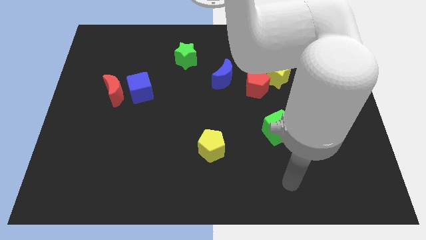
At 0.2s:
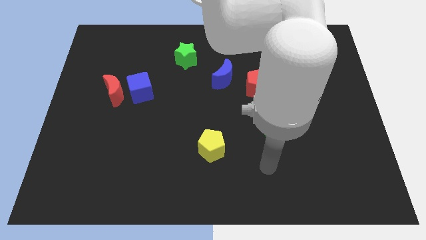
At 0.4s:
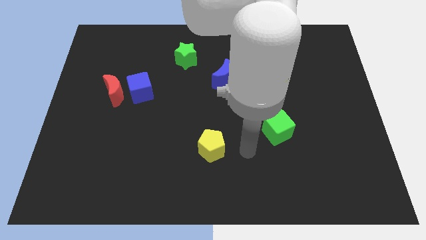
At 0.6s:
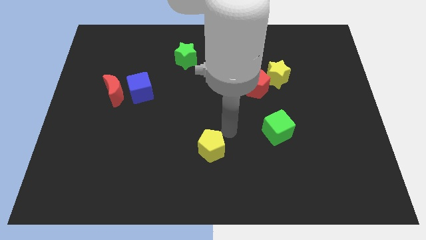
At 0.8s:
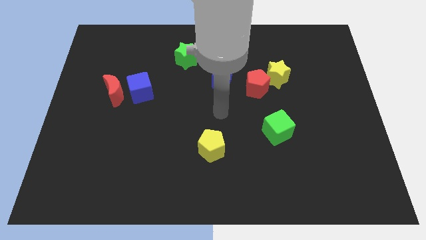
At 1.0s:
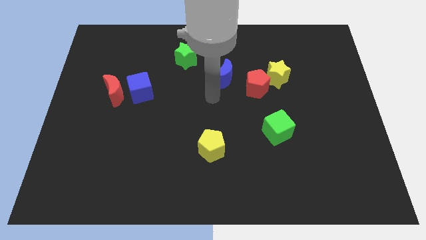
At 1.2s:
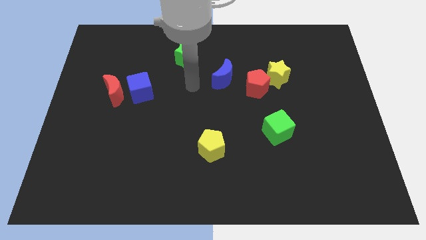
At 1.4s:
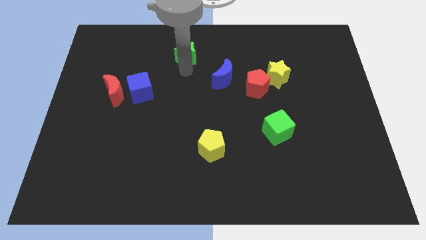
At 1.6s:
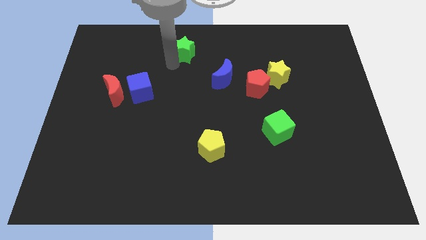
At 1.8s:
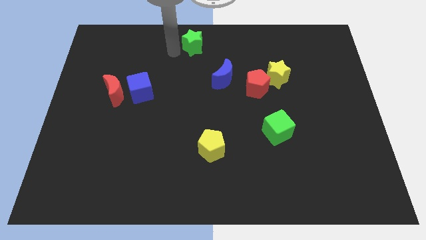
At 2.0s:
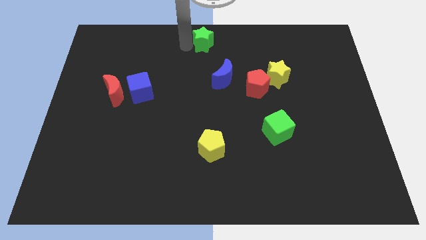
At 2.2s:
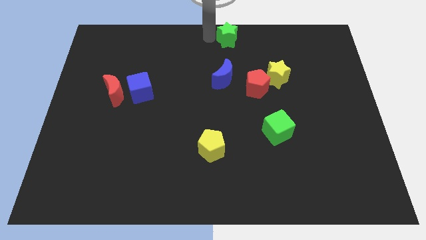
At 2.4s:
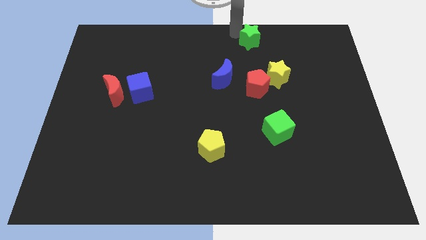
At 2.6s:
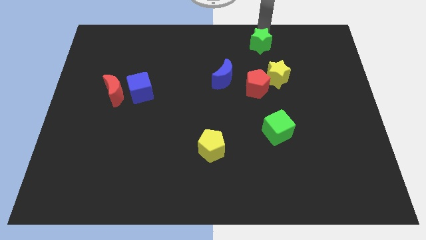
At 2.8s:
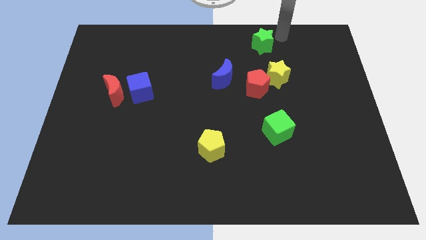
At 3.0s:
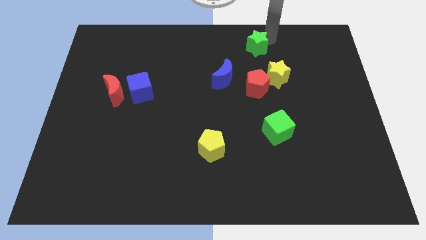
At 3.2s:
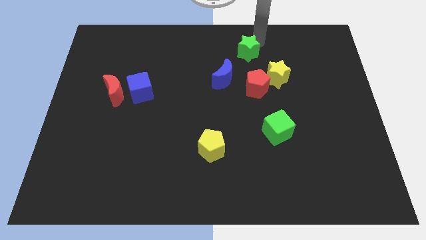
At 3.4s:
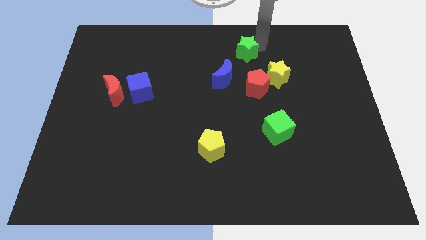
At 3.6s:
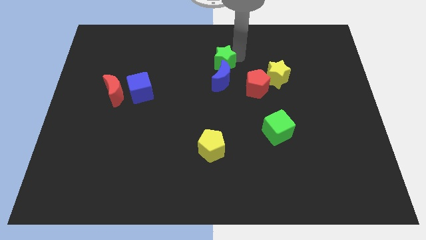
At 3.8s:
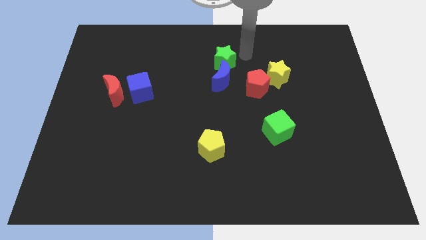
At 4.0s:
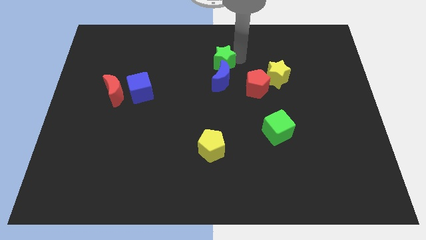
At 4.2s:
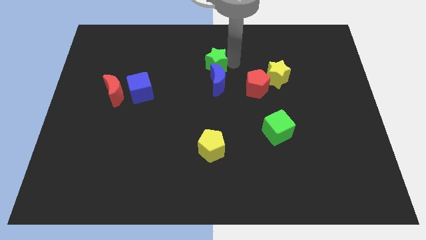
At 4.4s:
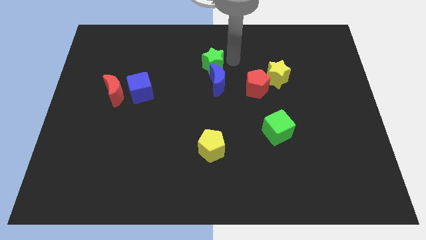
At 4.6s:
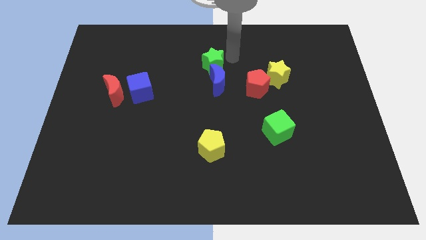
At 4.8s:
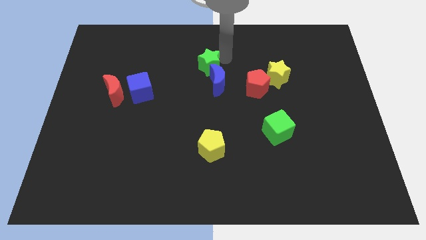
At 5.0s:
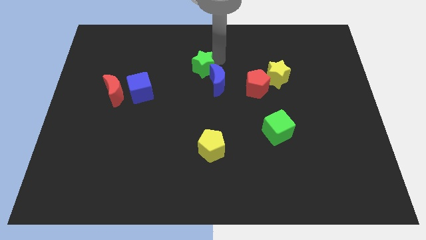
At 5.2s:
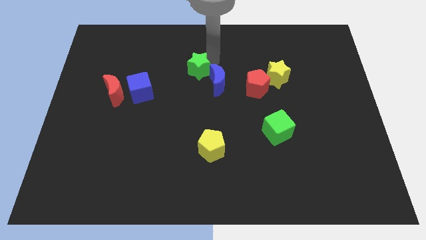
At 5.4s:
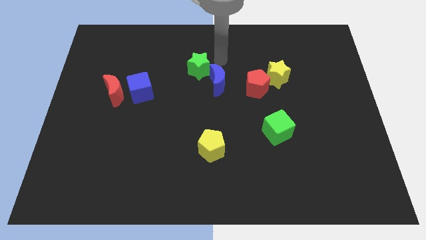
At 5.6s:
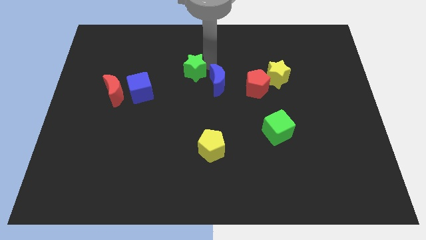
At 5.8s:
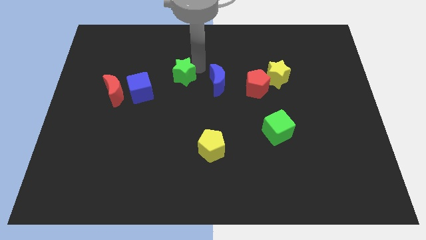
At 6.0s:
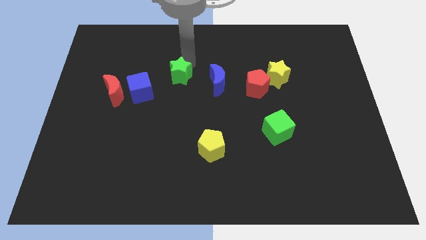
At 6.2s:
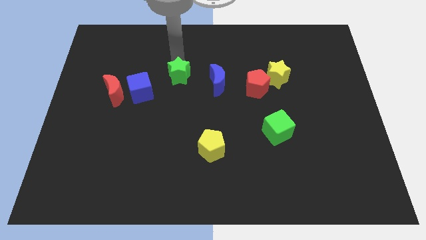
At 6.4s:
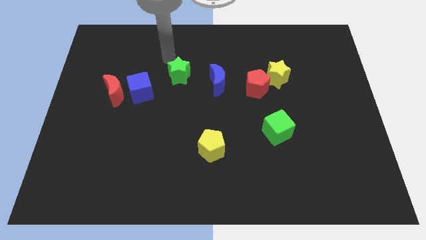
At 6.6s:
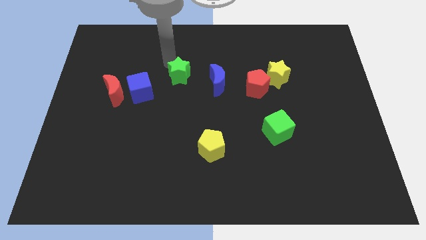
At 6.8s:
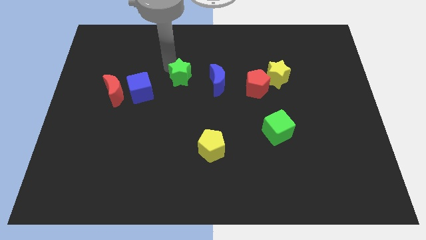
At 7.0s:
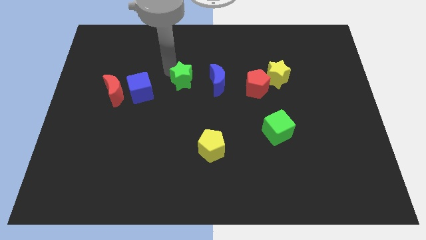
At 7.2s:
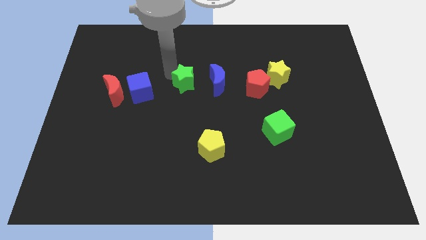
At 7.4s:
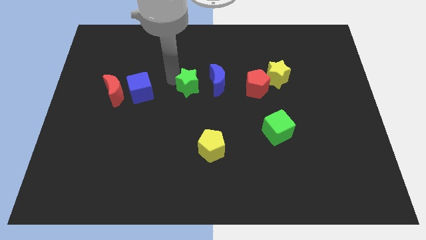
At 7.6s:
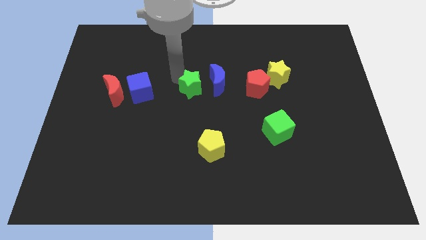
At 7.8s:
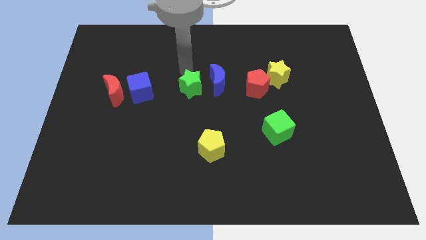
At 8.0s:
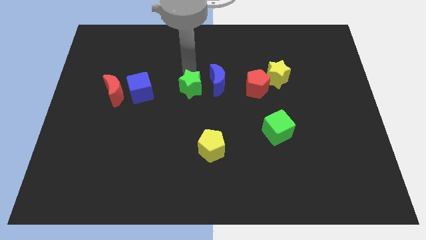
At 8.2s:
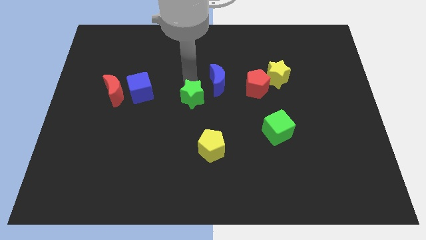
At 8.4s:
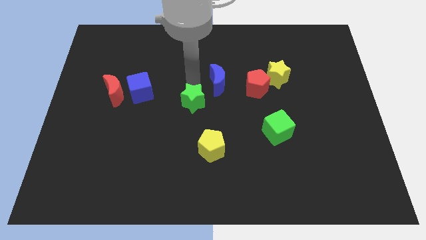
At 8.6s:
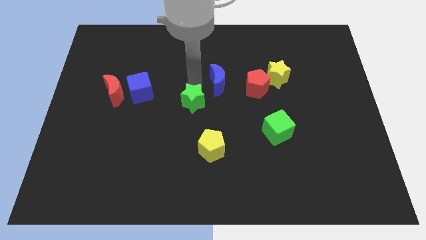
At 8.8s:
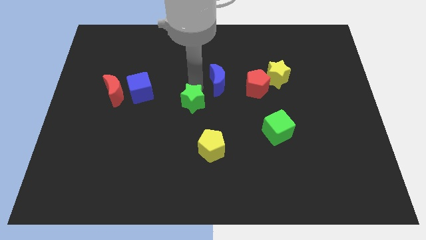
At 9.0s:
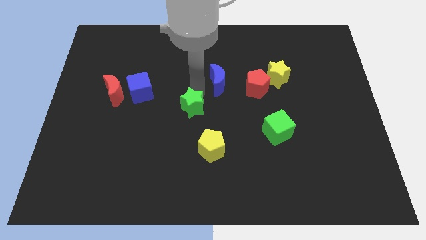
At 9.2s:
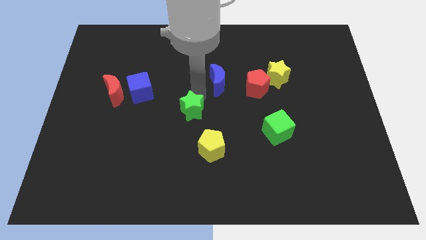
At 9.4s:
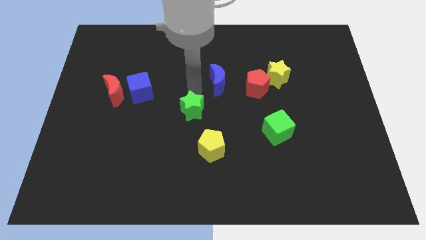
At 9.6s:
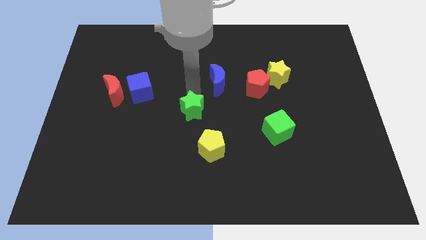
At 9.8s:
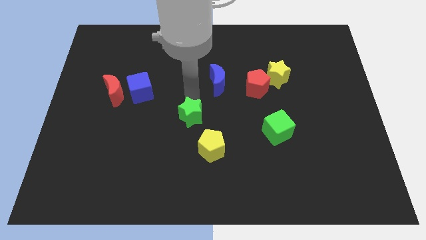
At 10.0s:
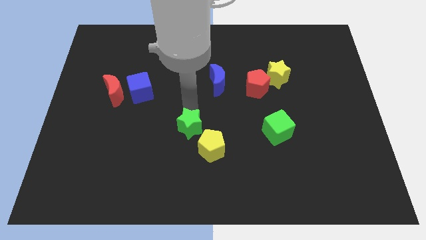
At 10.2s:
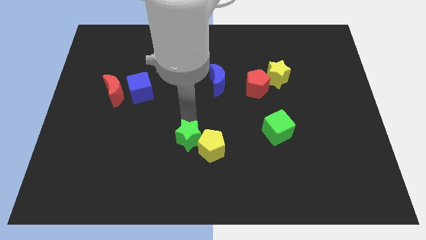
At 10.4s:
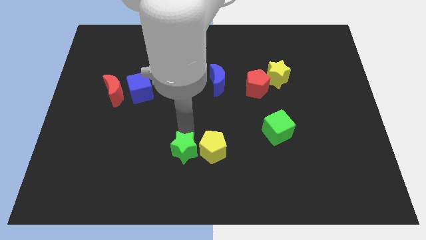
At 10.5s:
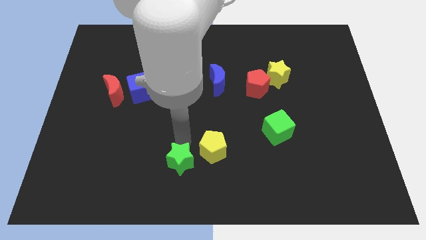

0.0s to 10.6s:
slide the green star to the bottom

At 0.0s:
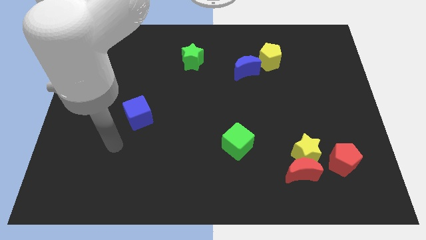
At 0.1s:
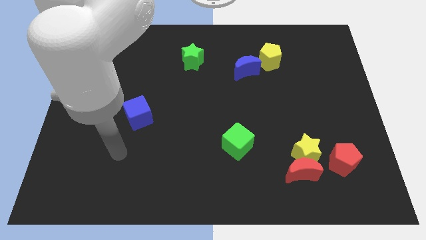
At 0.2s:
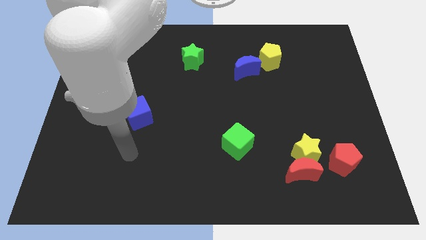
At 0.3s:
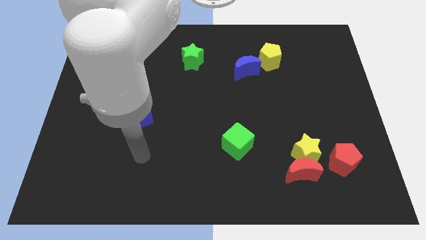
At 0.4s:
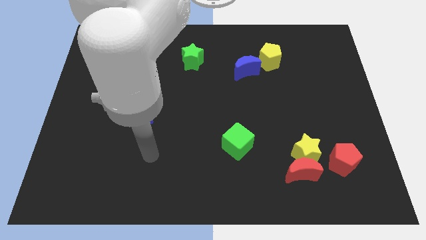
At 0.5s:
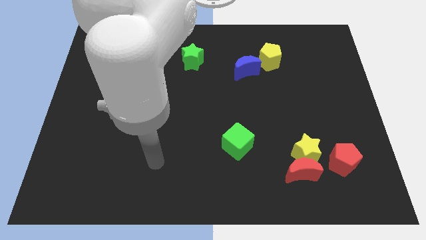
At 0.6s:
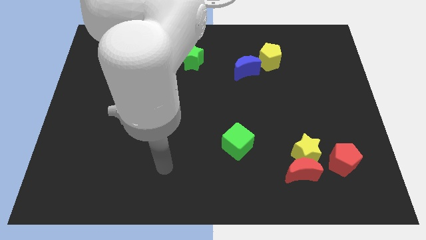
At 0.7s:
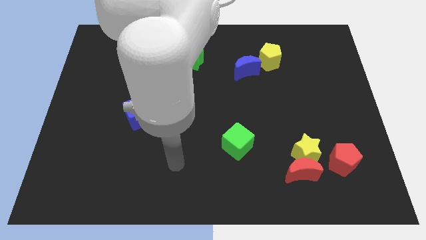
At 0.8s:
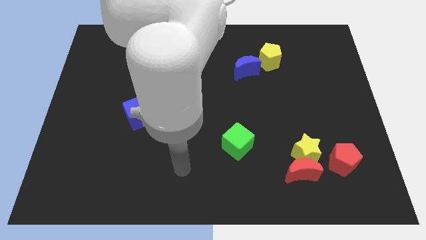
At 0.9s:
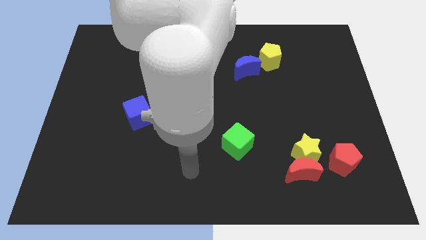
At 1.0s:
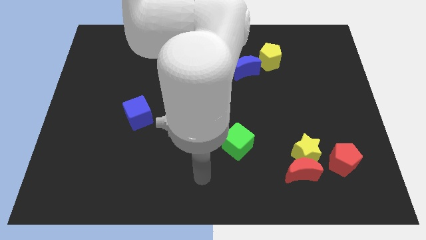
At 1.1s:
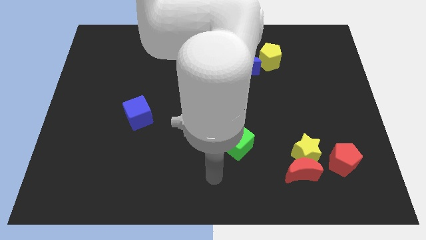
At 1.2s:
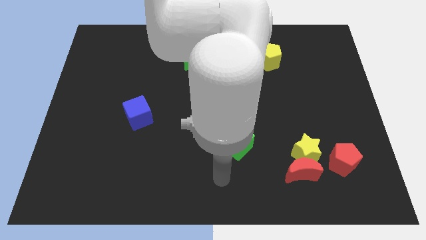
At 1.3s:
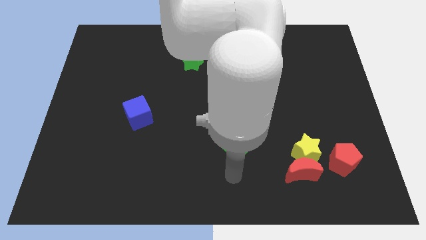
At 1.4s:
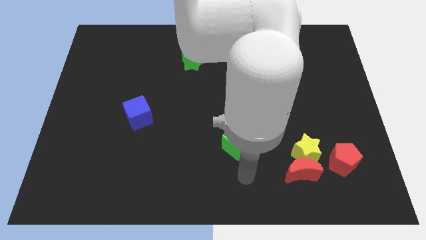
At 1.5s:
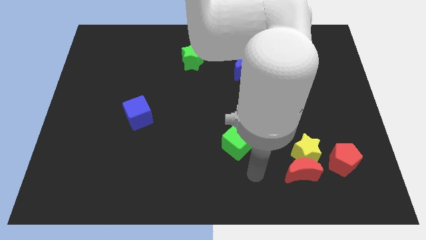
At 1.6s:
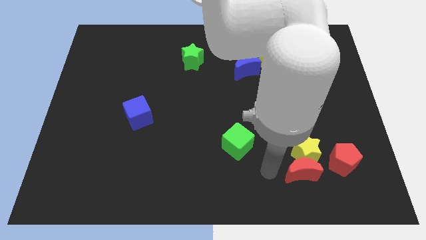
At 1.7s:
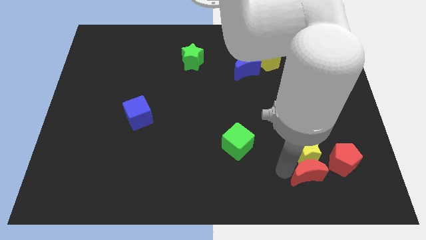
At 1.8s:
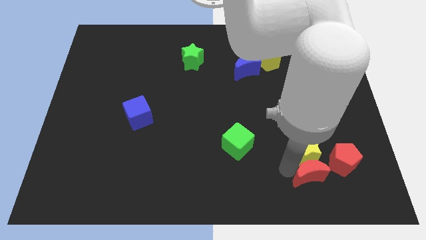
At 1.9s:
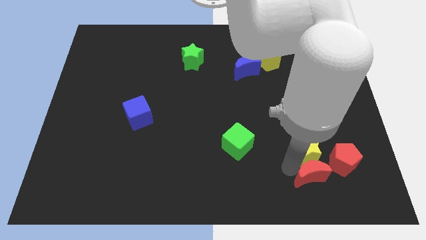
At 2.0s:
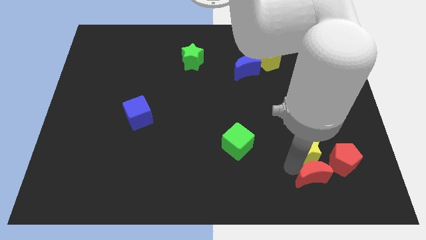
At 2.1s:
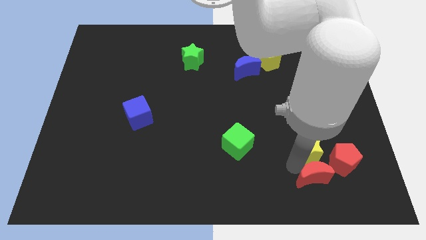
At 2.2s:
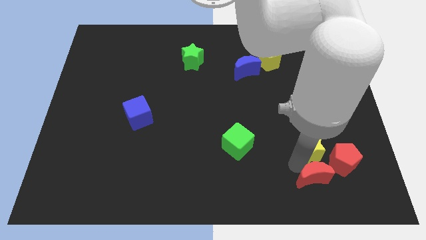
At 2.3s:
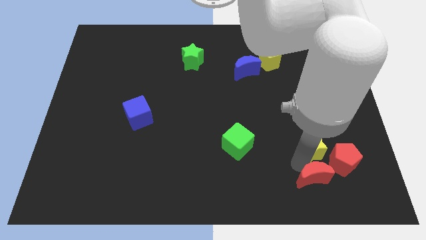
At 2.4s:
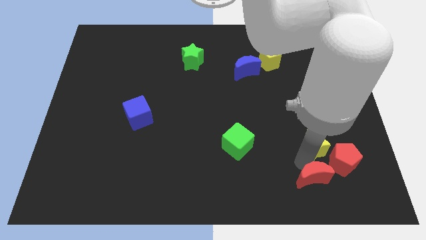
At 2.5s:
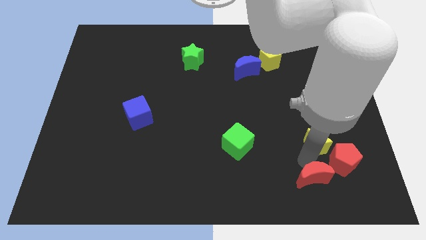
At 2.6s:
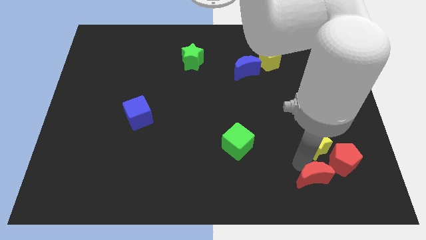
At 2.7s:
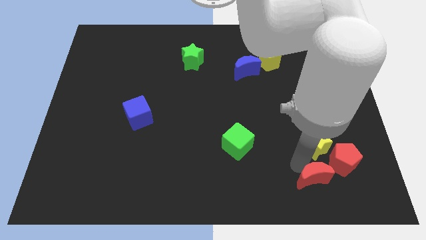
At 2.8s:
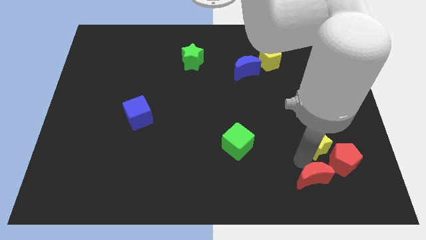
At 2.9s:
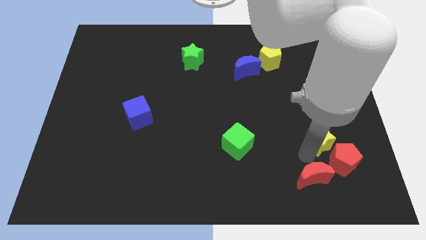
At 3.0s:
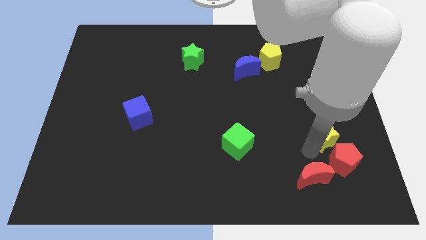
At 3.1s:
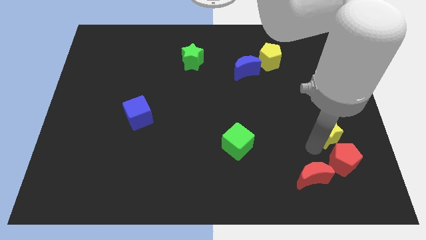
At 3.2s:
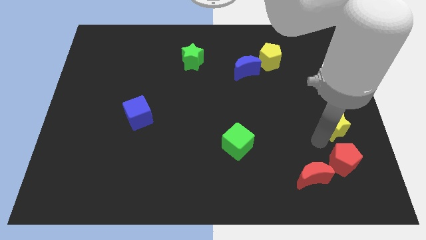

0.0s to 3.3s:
push the yellow star to the right side of the board
